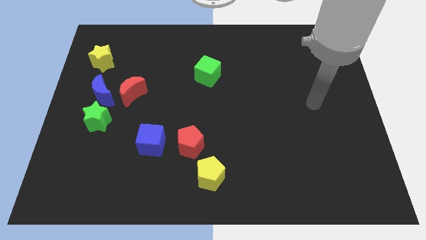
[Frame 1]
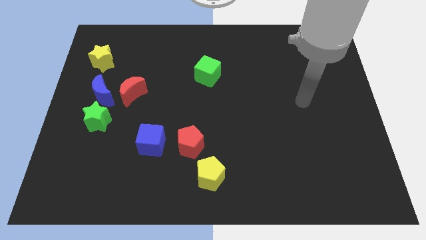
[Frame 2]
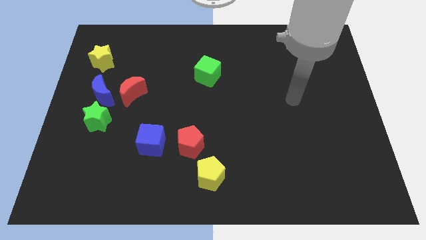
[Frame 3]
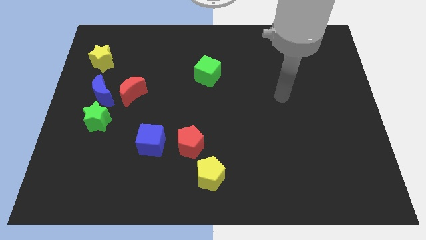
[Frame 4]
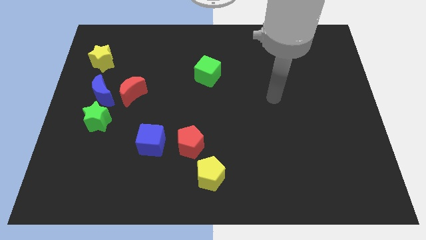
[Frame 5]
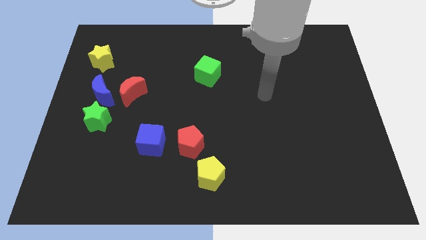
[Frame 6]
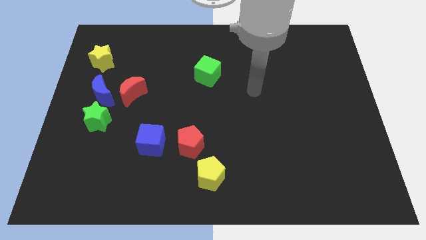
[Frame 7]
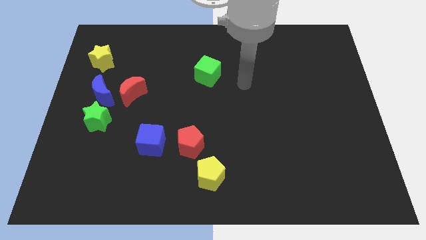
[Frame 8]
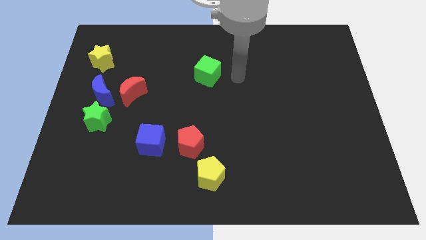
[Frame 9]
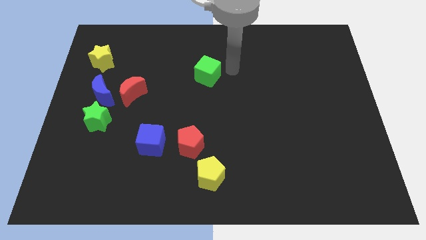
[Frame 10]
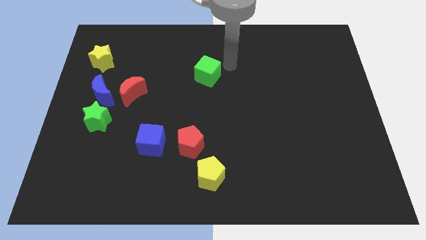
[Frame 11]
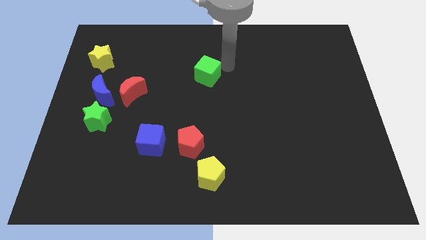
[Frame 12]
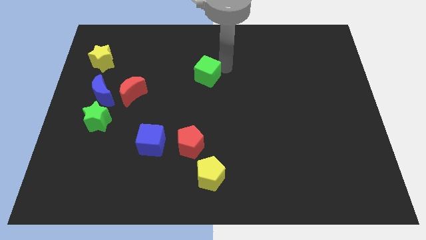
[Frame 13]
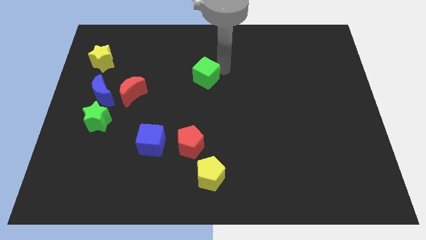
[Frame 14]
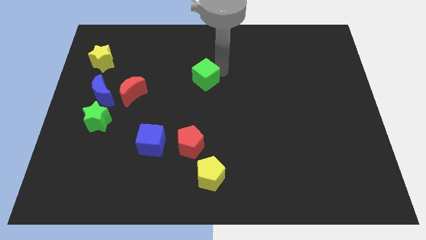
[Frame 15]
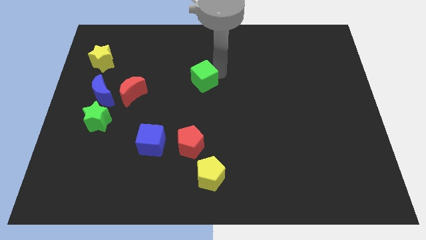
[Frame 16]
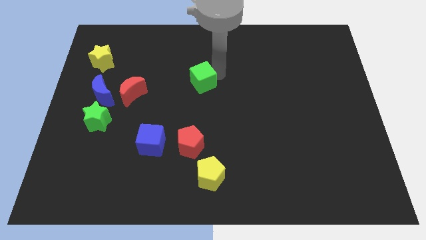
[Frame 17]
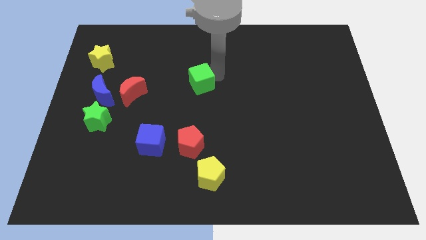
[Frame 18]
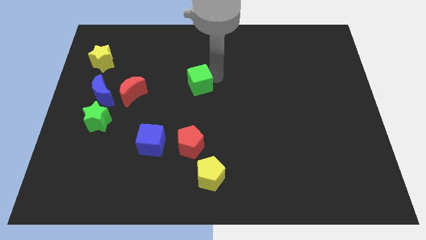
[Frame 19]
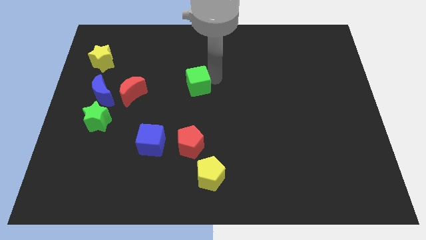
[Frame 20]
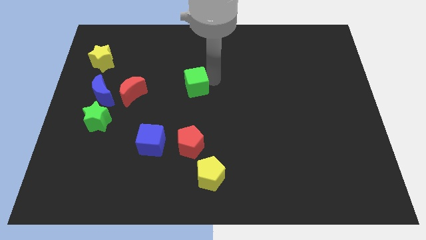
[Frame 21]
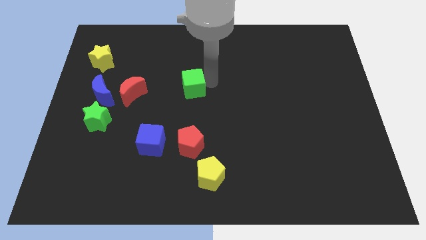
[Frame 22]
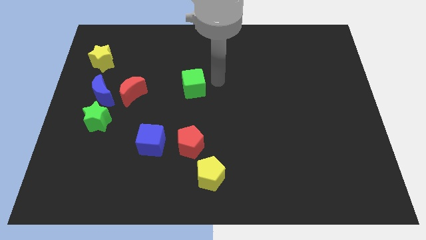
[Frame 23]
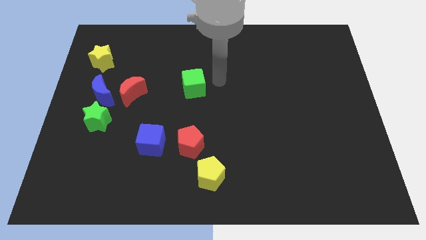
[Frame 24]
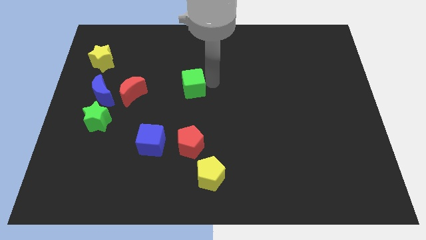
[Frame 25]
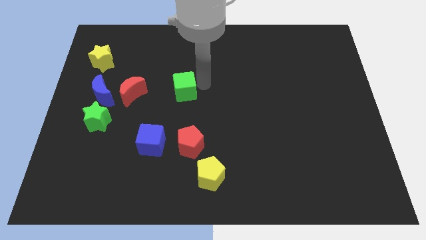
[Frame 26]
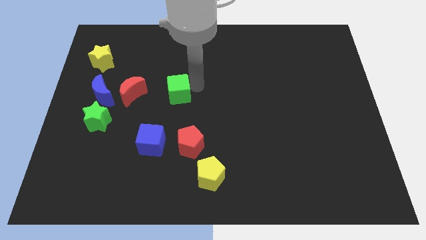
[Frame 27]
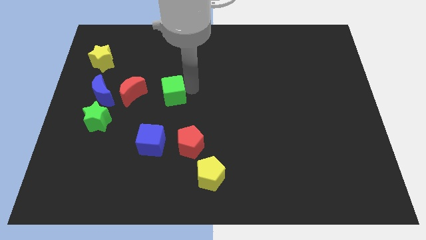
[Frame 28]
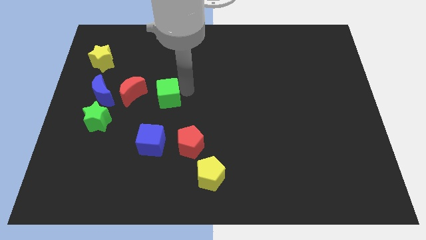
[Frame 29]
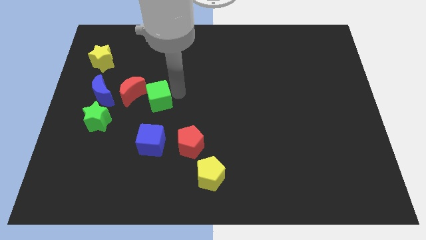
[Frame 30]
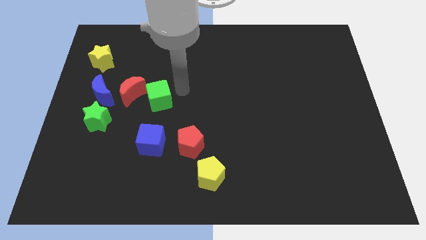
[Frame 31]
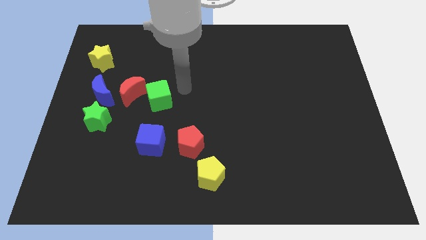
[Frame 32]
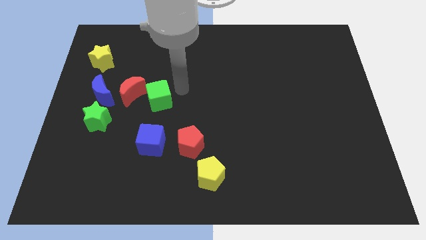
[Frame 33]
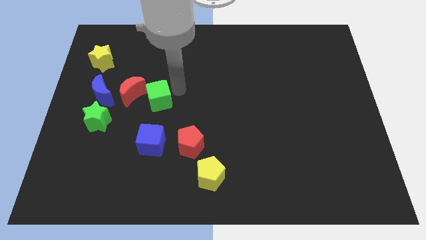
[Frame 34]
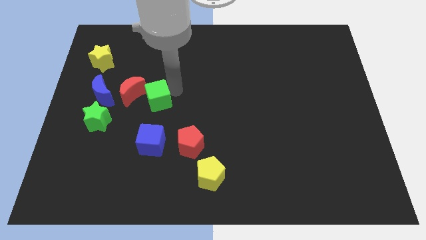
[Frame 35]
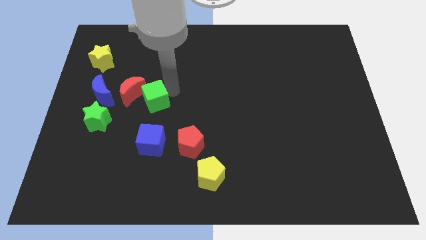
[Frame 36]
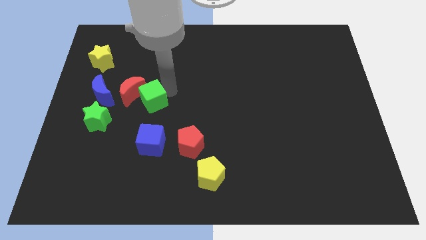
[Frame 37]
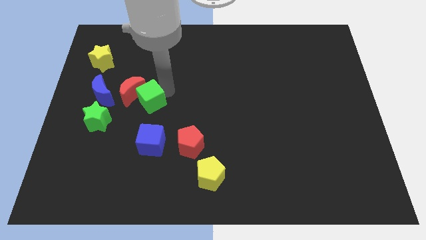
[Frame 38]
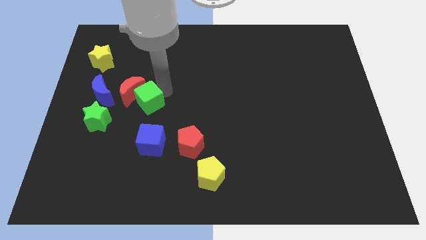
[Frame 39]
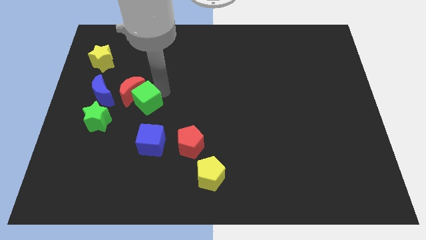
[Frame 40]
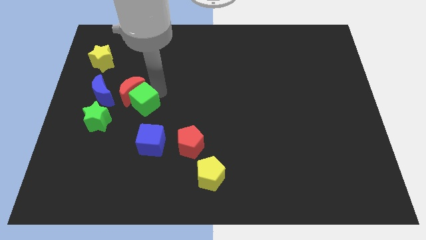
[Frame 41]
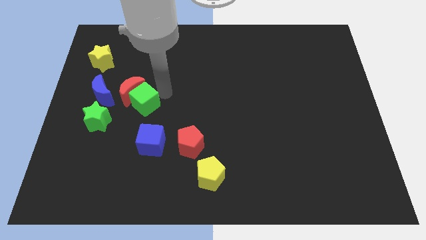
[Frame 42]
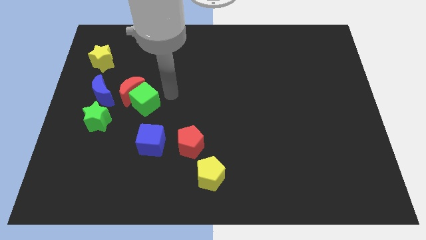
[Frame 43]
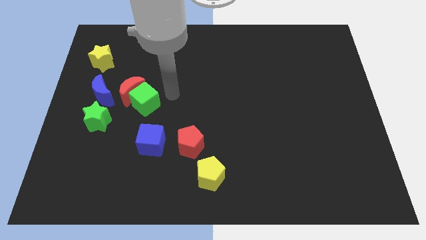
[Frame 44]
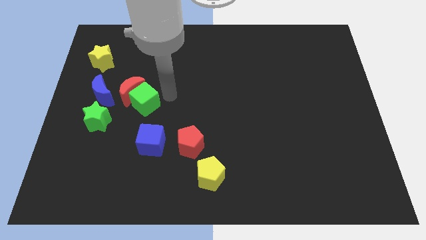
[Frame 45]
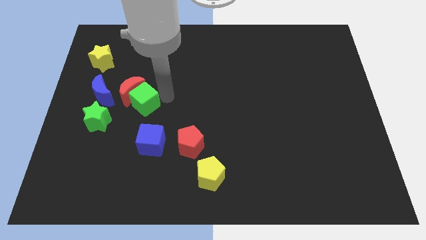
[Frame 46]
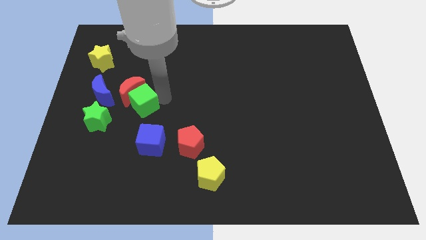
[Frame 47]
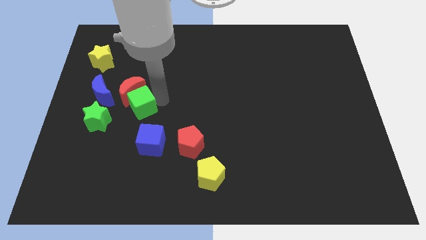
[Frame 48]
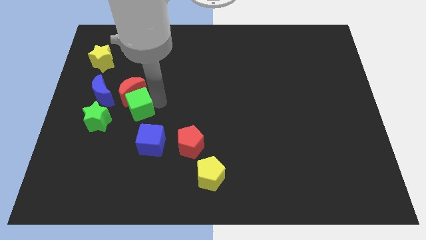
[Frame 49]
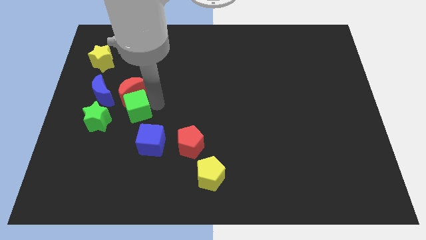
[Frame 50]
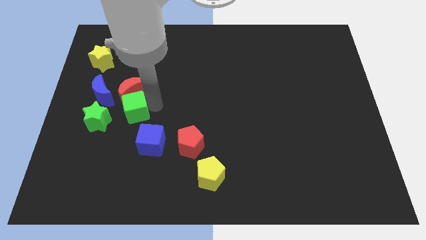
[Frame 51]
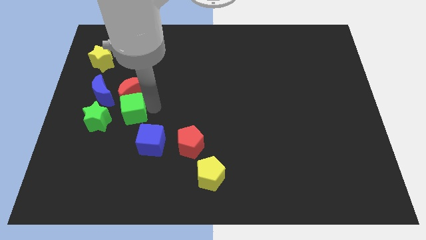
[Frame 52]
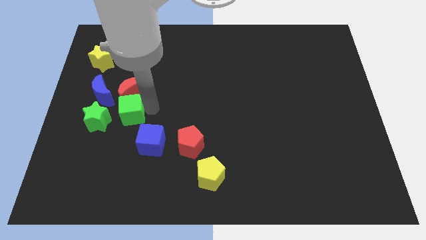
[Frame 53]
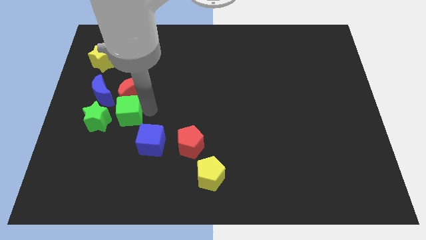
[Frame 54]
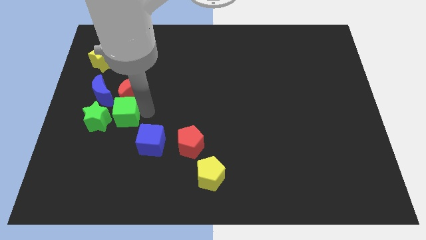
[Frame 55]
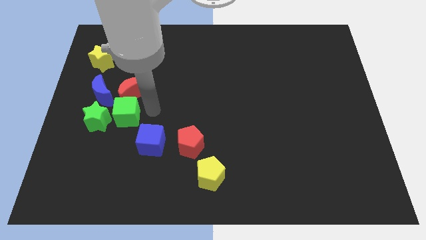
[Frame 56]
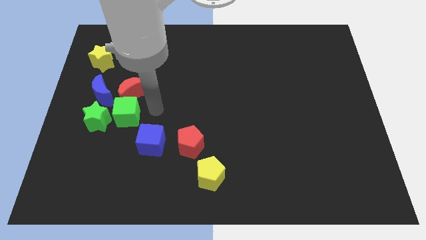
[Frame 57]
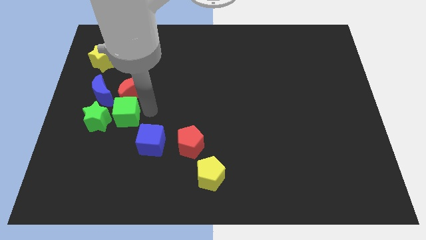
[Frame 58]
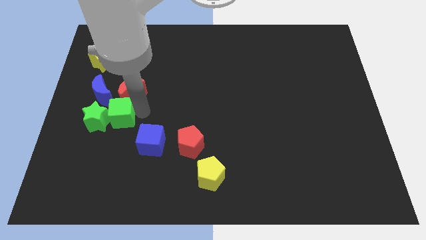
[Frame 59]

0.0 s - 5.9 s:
move the green cube close to the green star

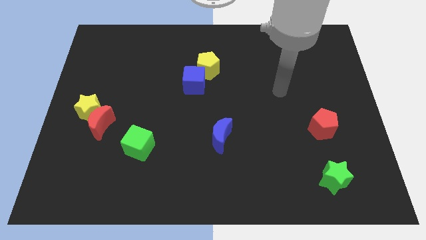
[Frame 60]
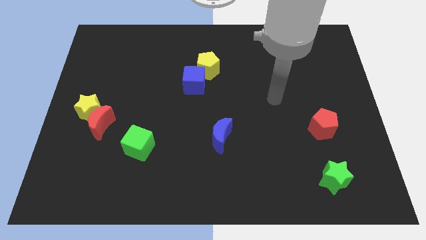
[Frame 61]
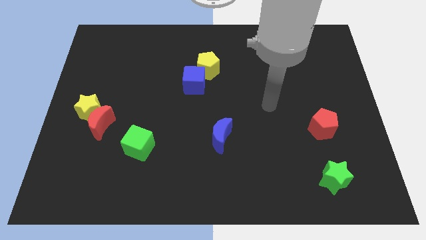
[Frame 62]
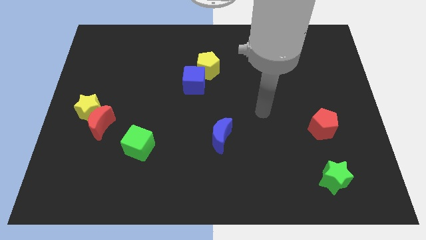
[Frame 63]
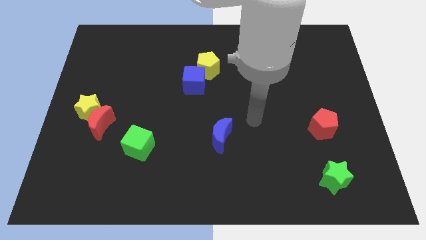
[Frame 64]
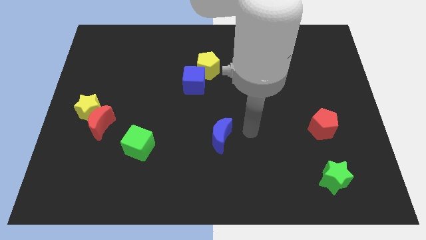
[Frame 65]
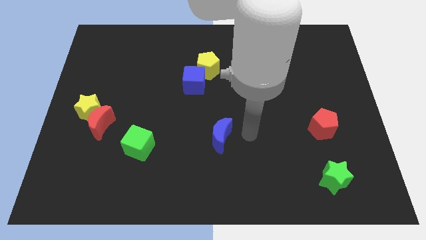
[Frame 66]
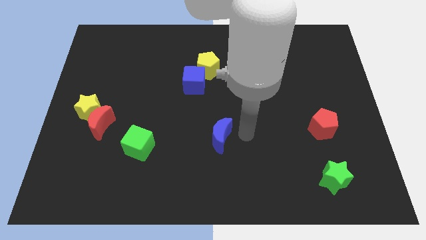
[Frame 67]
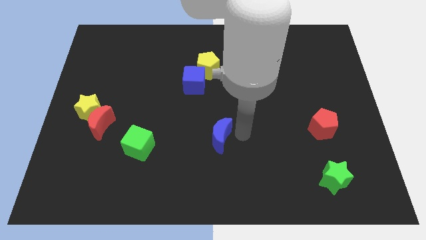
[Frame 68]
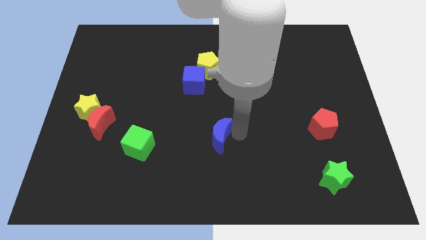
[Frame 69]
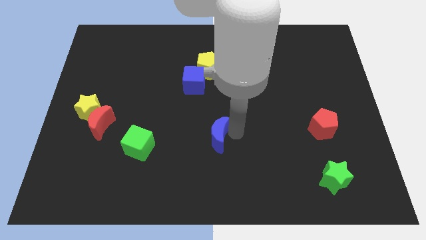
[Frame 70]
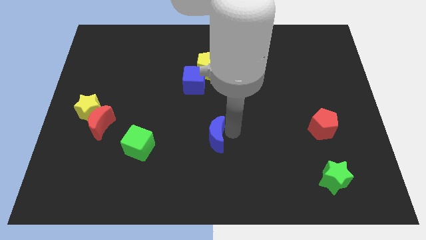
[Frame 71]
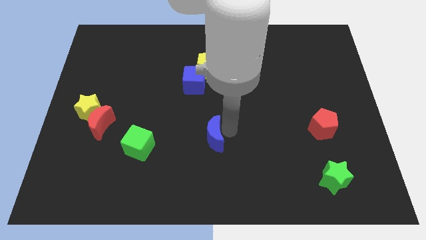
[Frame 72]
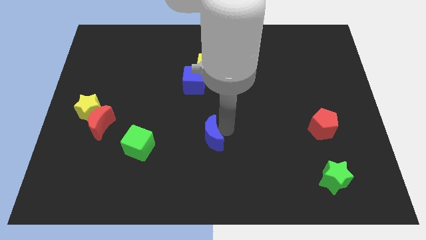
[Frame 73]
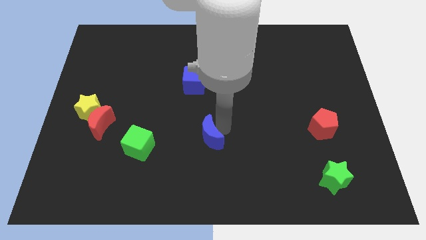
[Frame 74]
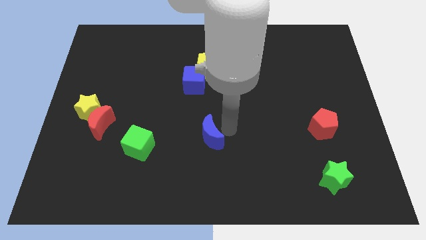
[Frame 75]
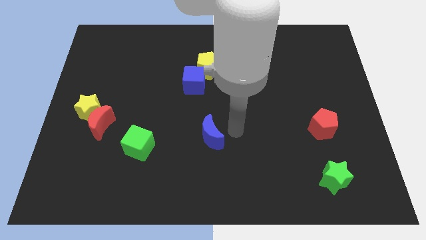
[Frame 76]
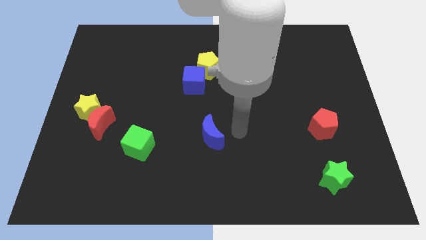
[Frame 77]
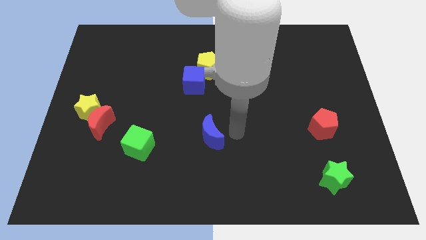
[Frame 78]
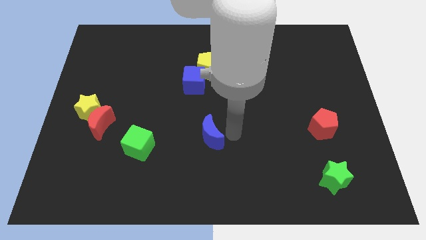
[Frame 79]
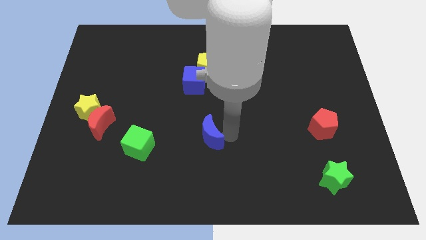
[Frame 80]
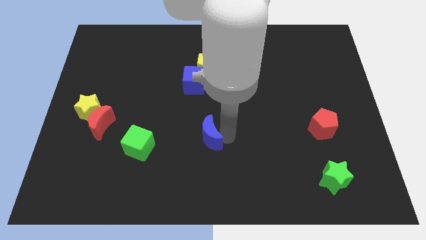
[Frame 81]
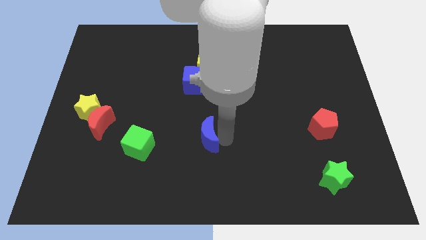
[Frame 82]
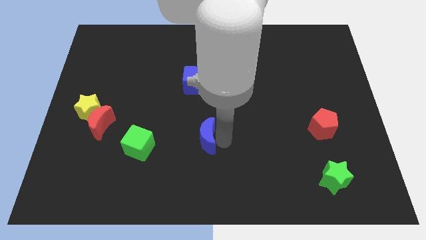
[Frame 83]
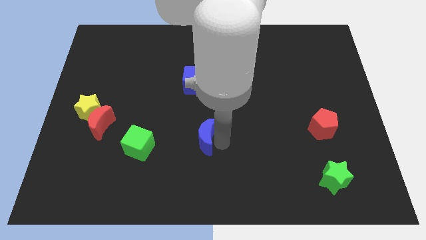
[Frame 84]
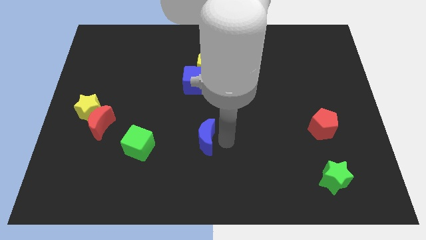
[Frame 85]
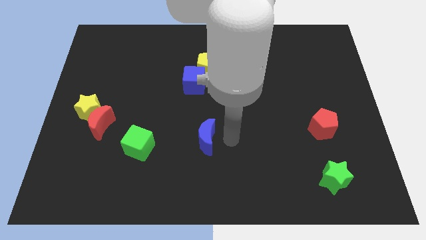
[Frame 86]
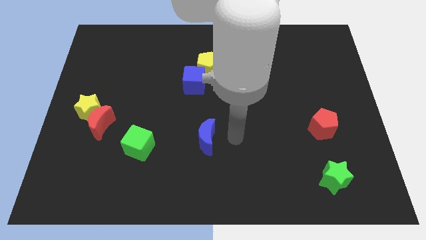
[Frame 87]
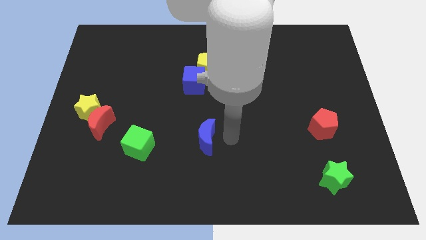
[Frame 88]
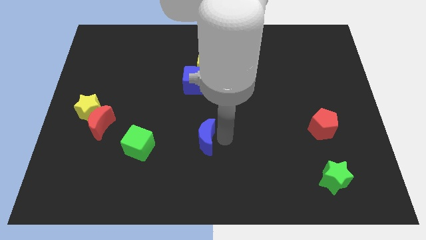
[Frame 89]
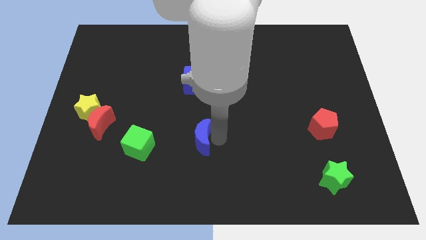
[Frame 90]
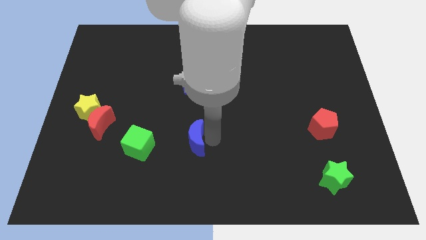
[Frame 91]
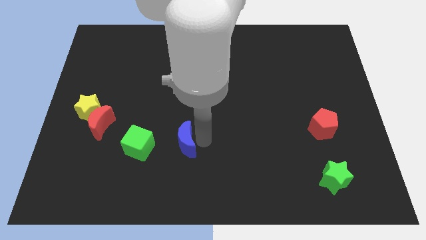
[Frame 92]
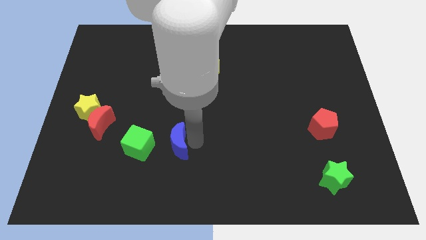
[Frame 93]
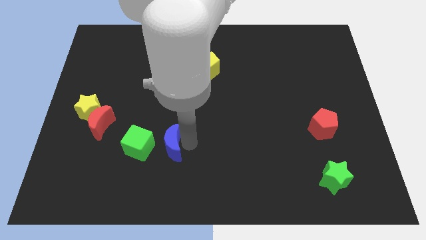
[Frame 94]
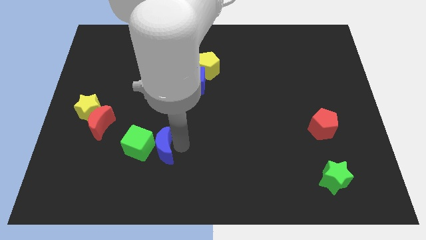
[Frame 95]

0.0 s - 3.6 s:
put the blue moon close to the green cube
